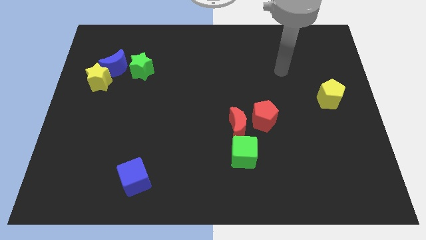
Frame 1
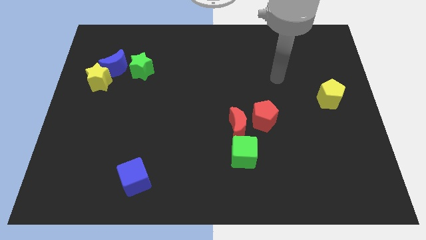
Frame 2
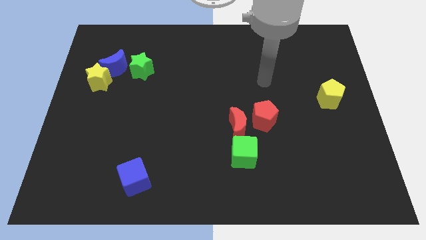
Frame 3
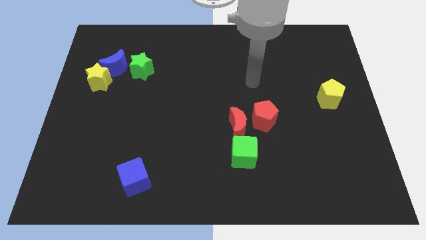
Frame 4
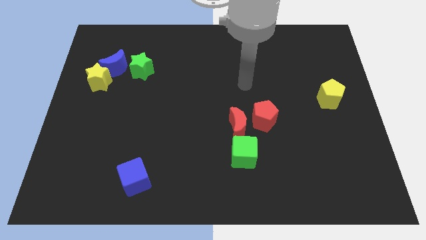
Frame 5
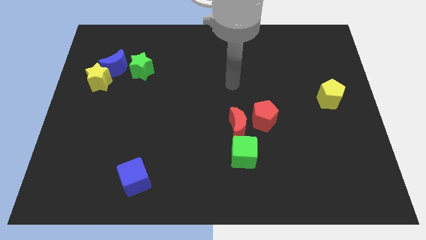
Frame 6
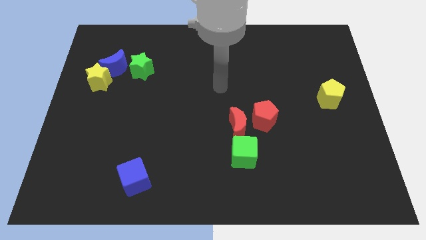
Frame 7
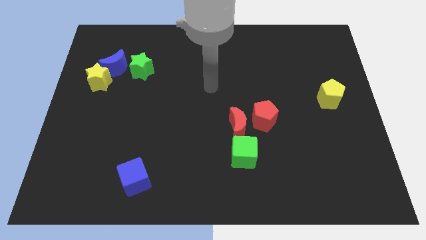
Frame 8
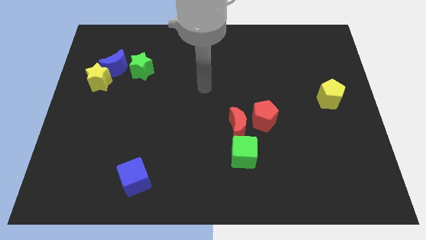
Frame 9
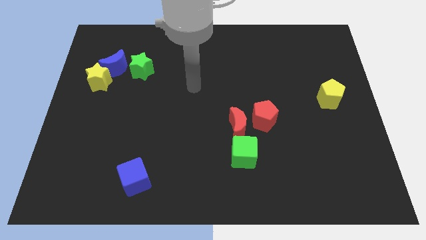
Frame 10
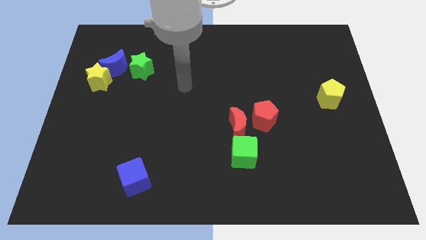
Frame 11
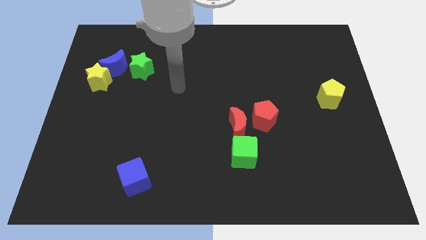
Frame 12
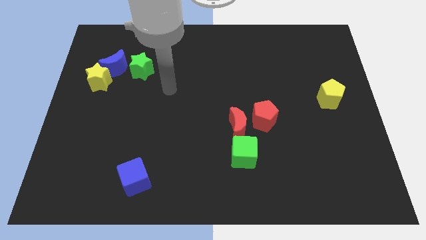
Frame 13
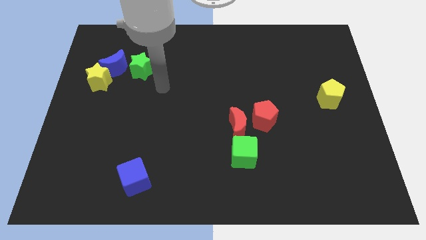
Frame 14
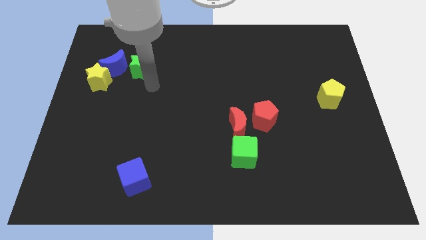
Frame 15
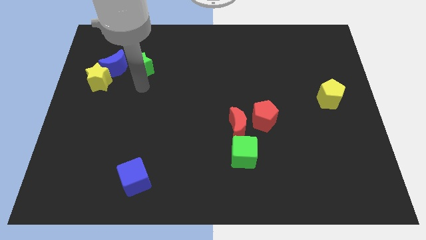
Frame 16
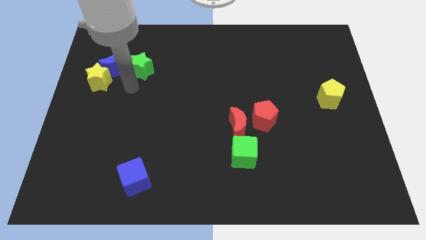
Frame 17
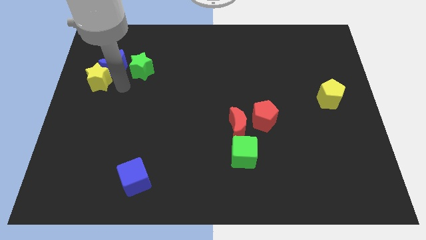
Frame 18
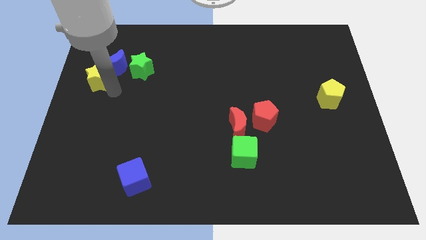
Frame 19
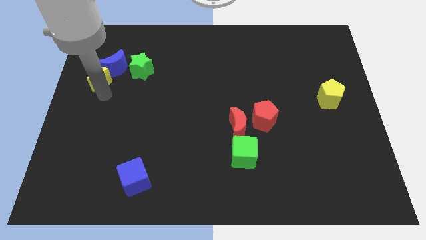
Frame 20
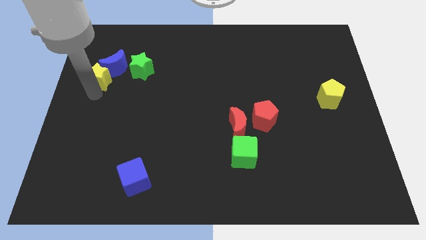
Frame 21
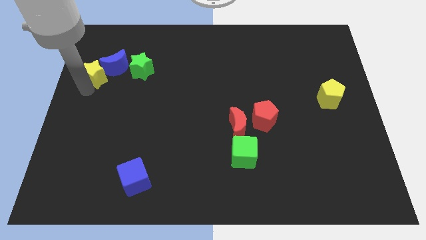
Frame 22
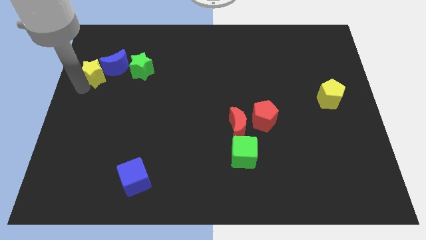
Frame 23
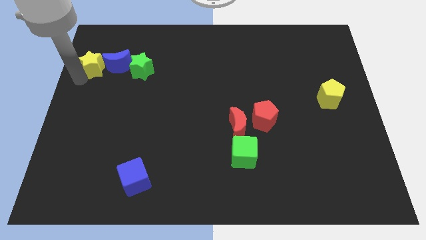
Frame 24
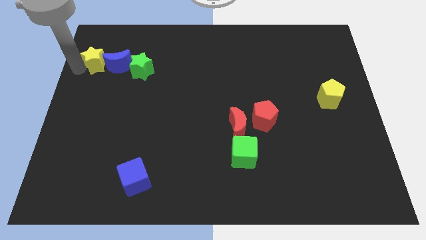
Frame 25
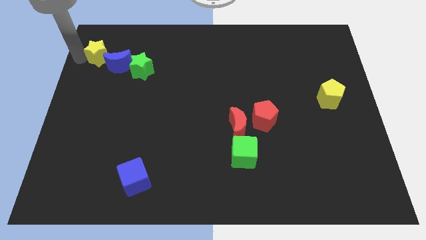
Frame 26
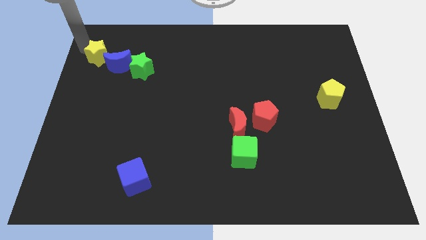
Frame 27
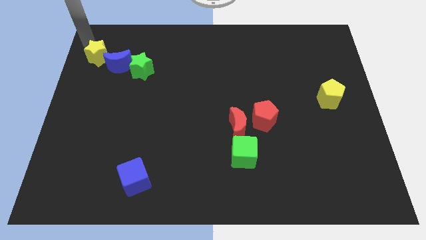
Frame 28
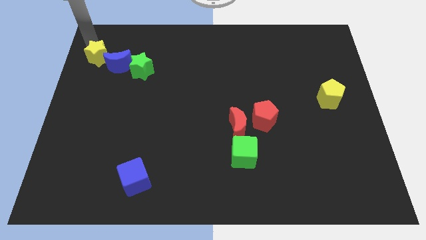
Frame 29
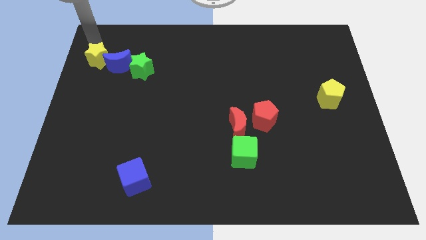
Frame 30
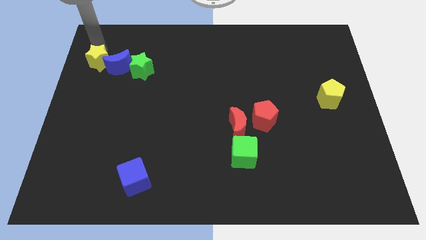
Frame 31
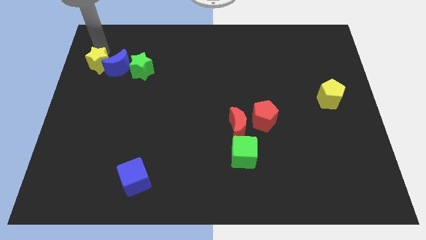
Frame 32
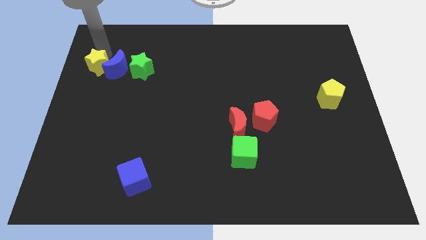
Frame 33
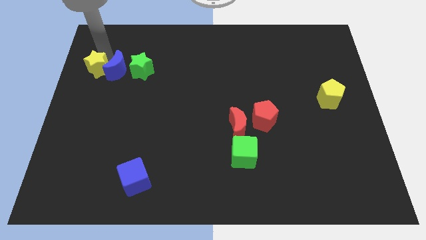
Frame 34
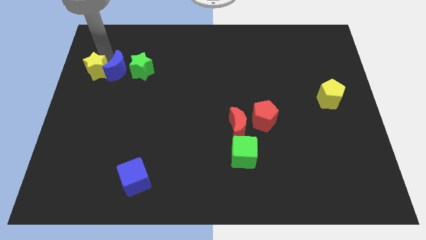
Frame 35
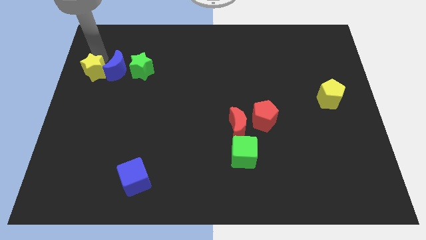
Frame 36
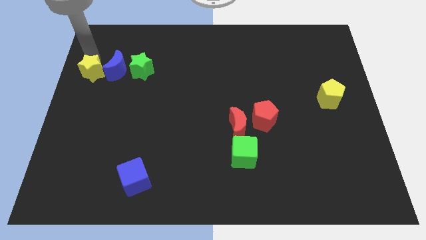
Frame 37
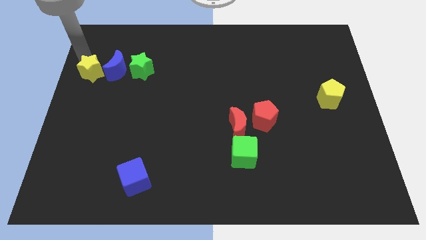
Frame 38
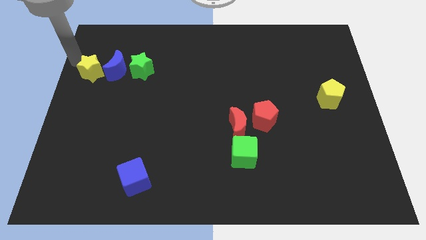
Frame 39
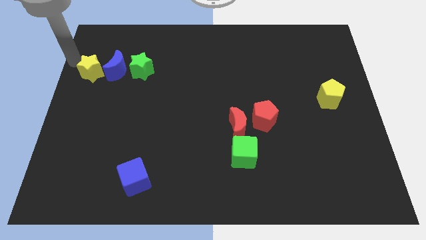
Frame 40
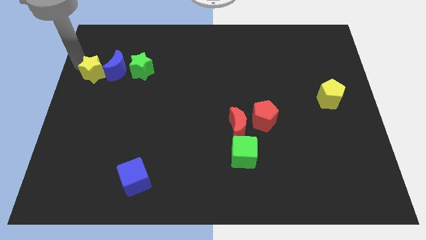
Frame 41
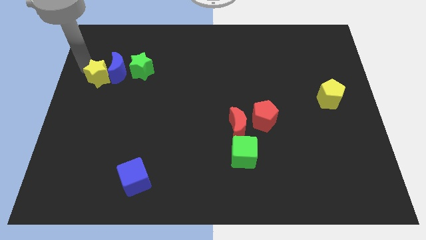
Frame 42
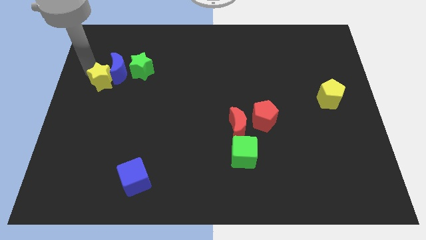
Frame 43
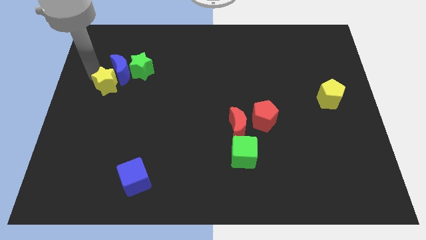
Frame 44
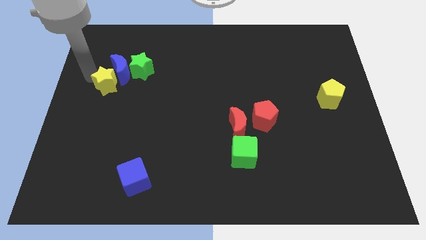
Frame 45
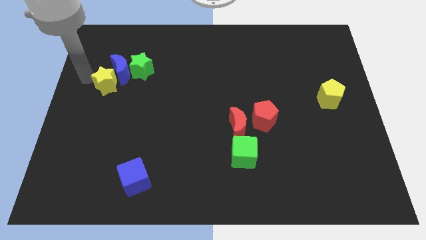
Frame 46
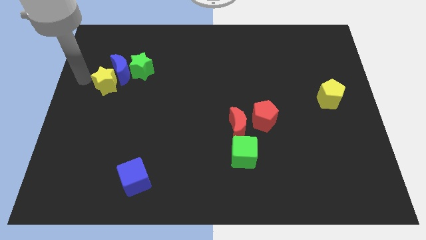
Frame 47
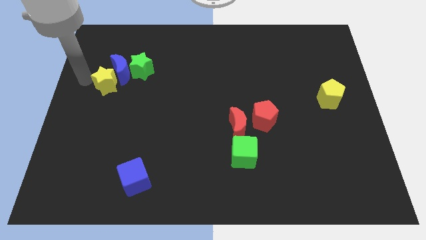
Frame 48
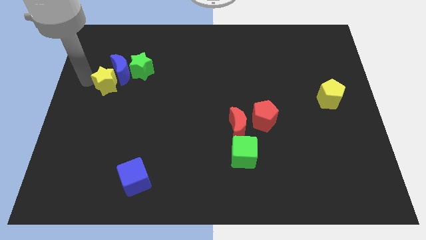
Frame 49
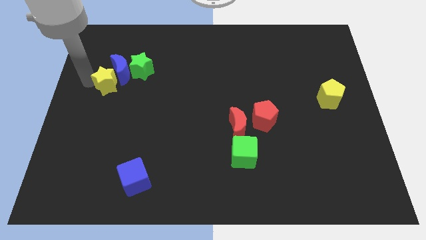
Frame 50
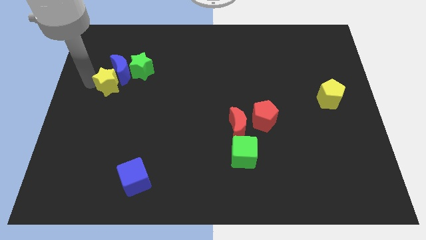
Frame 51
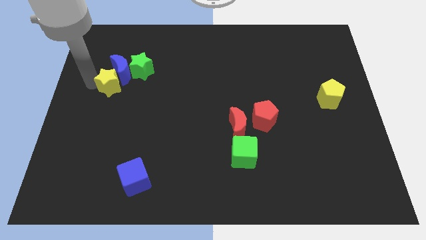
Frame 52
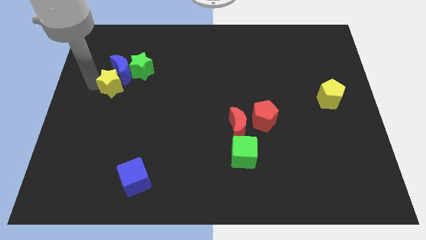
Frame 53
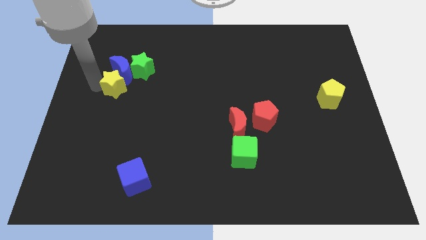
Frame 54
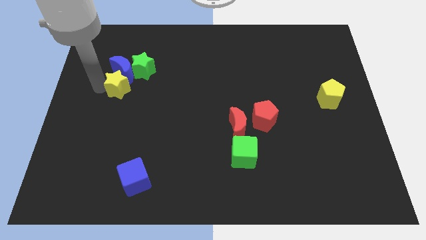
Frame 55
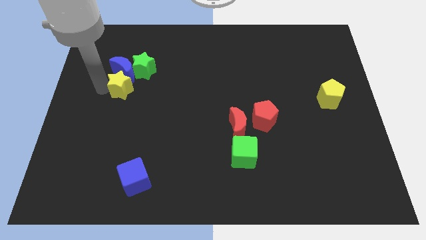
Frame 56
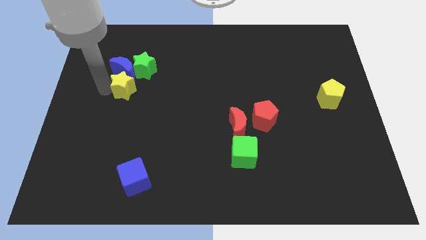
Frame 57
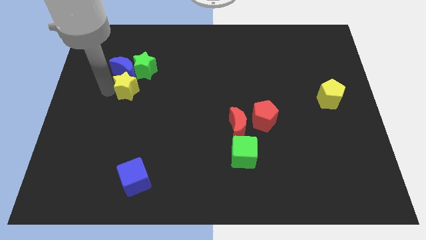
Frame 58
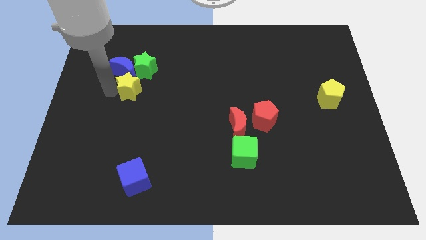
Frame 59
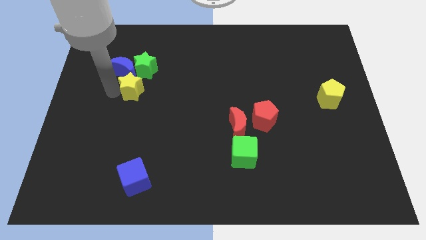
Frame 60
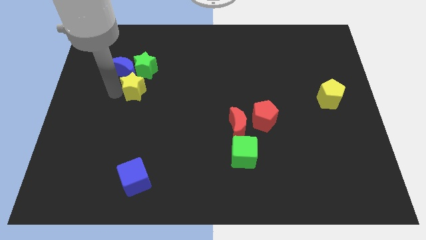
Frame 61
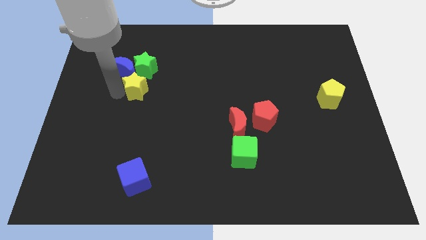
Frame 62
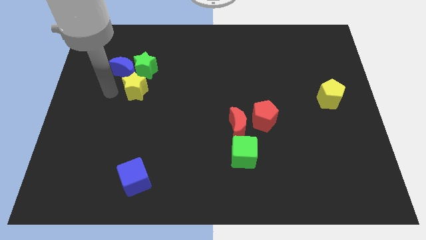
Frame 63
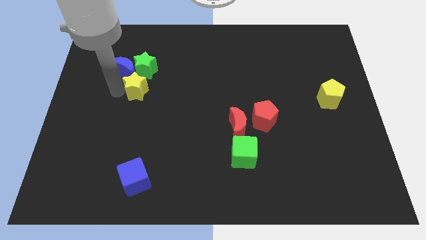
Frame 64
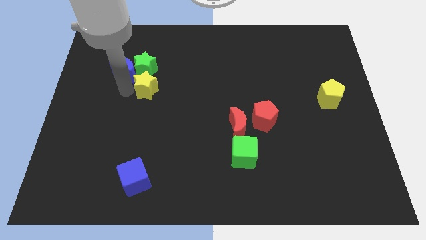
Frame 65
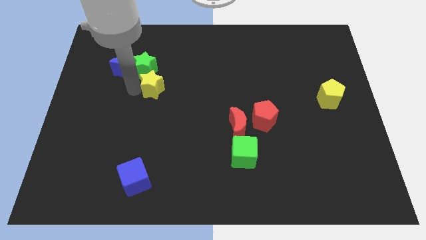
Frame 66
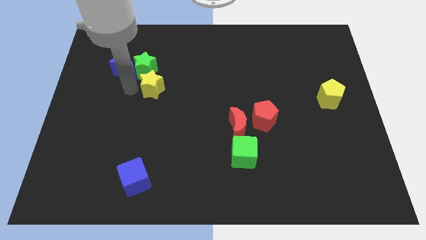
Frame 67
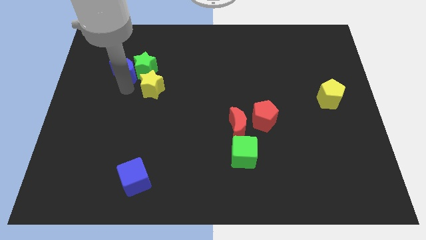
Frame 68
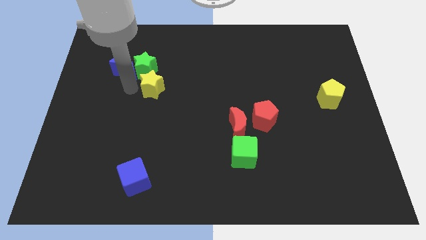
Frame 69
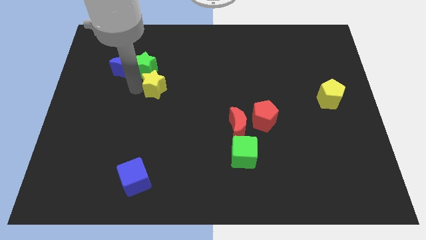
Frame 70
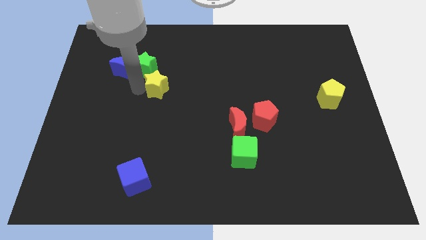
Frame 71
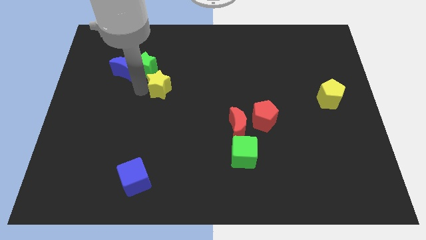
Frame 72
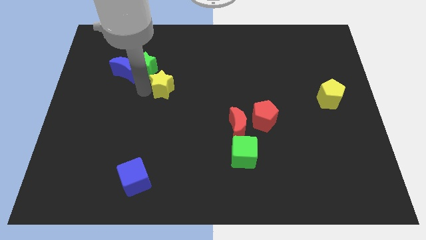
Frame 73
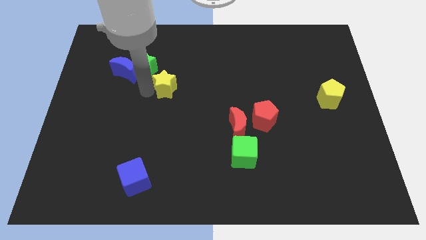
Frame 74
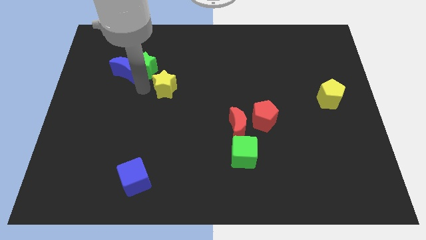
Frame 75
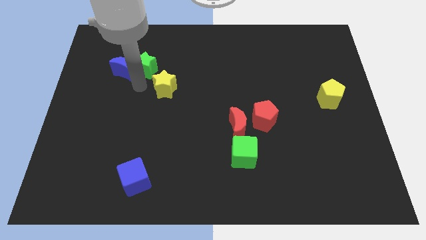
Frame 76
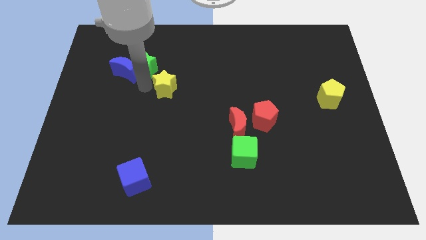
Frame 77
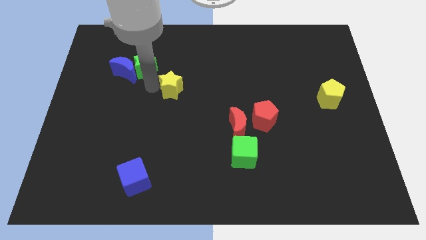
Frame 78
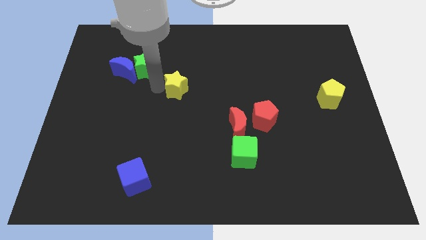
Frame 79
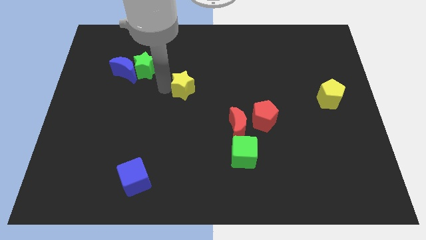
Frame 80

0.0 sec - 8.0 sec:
move the yellow star right
